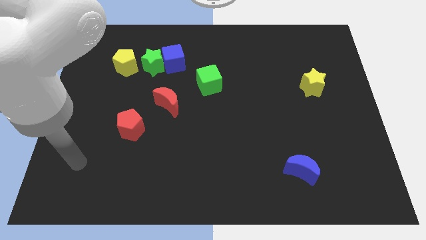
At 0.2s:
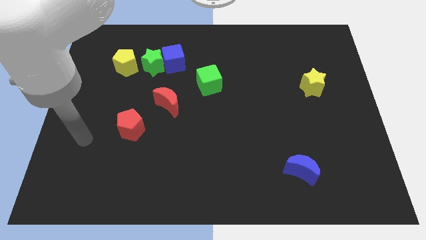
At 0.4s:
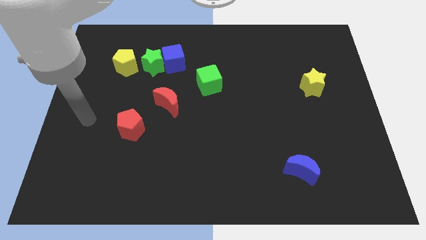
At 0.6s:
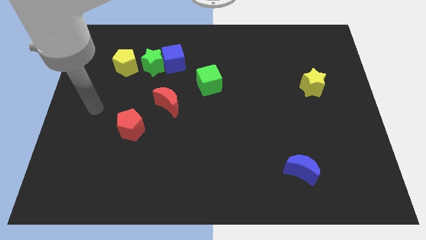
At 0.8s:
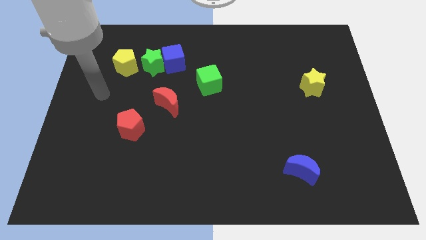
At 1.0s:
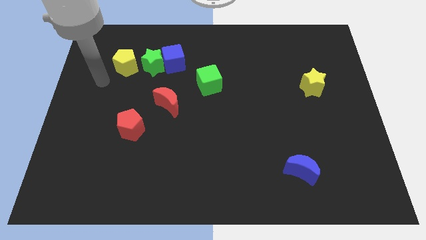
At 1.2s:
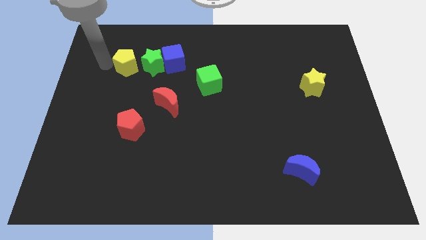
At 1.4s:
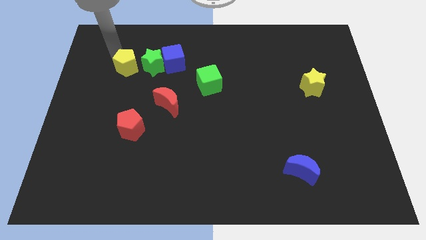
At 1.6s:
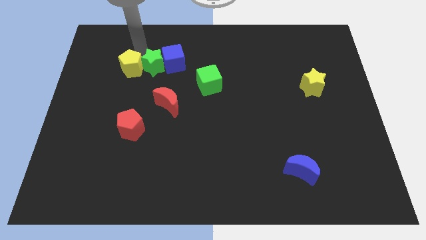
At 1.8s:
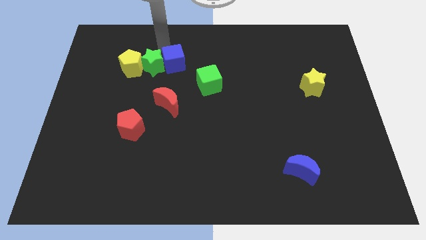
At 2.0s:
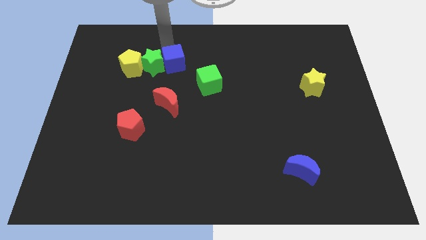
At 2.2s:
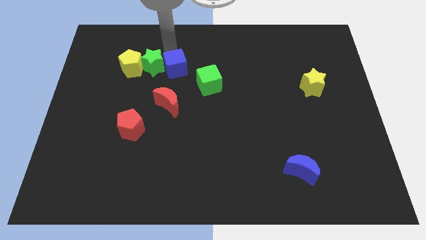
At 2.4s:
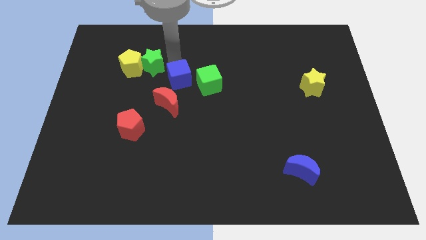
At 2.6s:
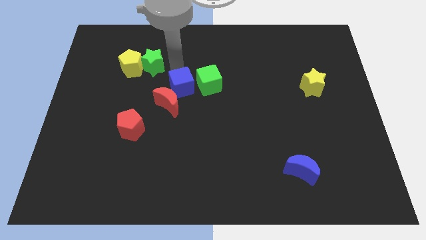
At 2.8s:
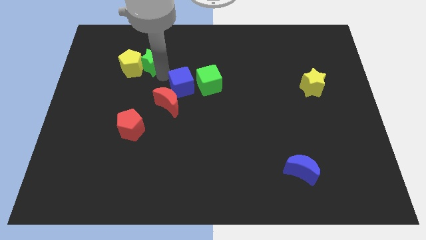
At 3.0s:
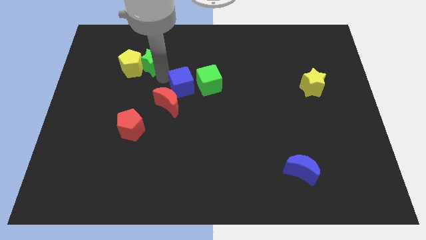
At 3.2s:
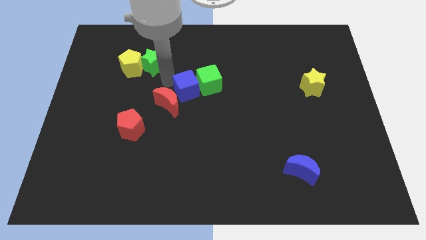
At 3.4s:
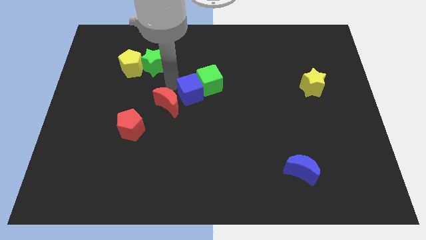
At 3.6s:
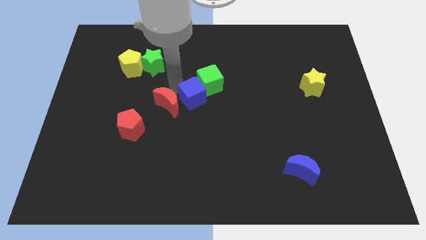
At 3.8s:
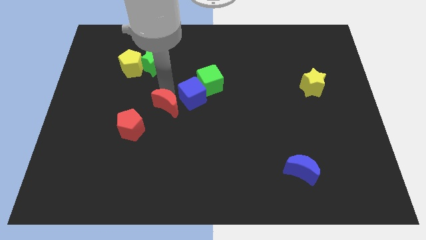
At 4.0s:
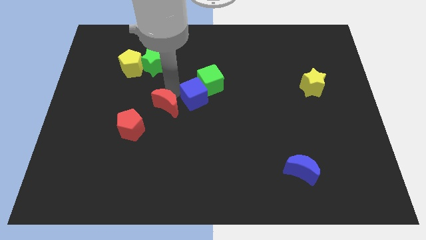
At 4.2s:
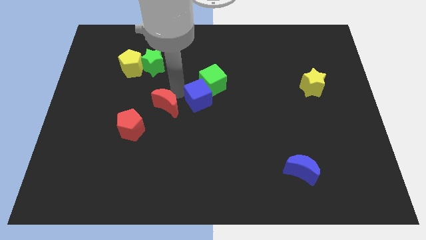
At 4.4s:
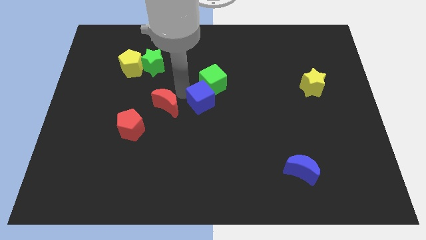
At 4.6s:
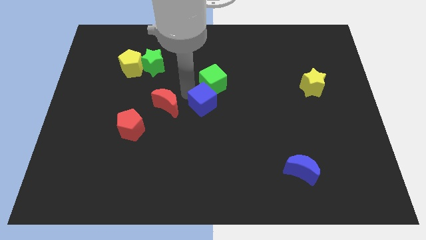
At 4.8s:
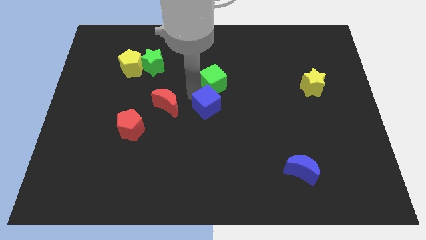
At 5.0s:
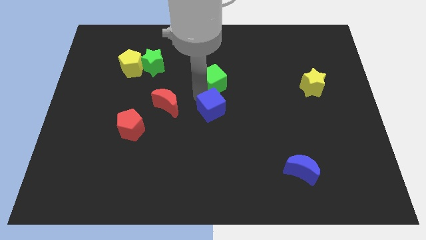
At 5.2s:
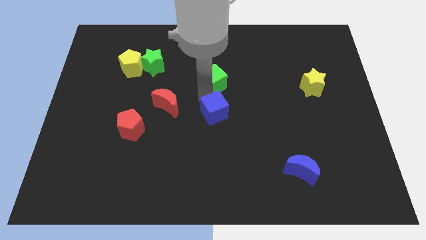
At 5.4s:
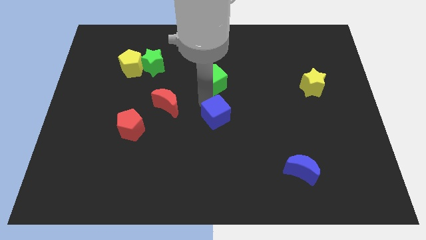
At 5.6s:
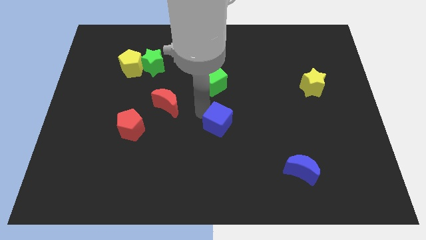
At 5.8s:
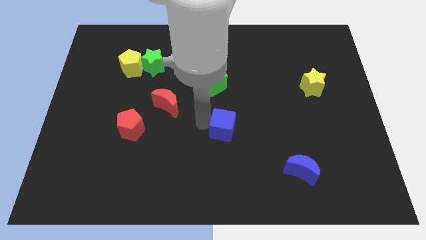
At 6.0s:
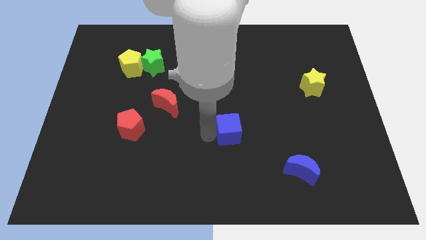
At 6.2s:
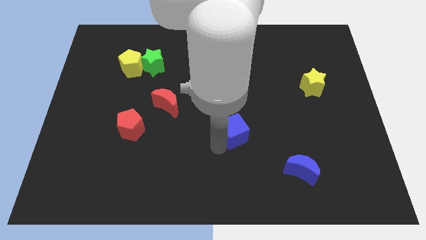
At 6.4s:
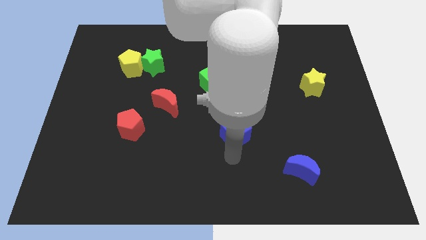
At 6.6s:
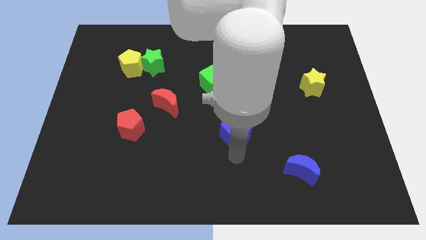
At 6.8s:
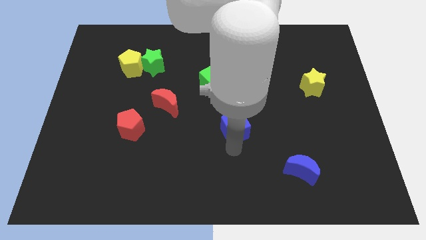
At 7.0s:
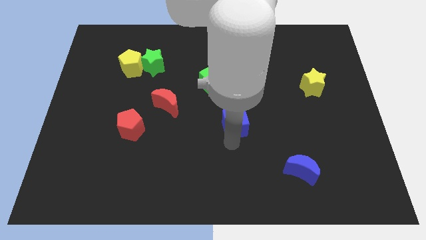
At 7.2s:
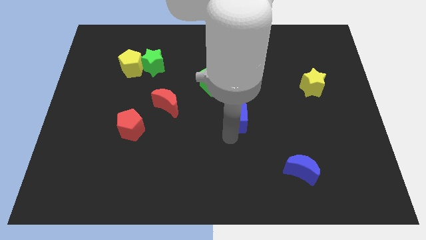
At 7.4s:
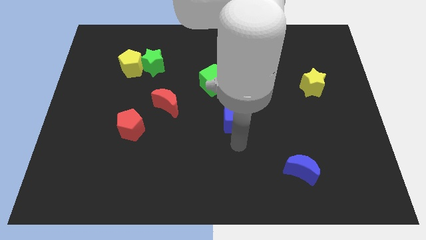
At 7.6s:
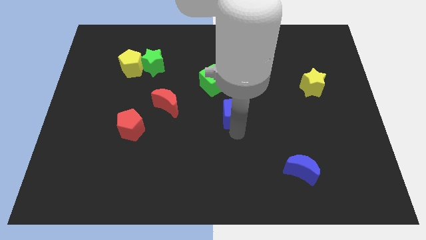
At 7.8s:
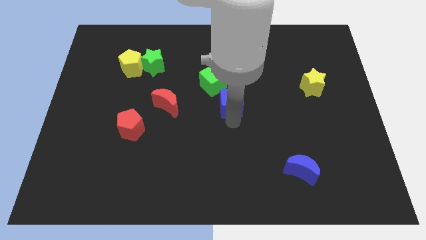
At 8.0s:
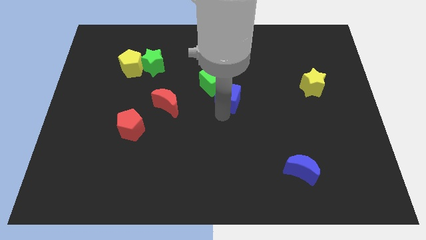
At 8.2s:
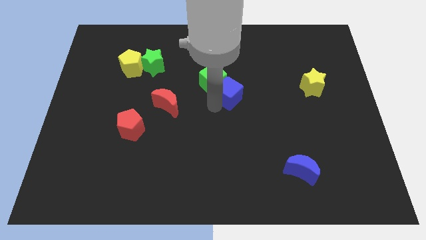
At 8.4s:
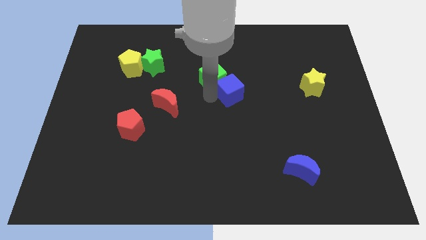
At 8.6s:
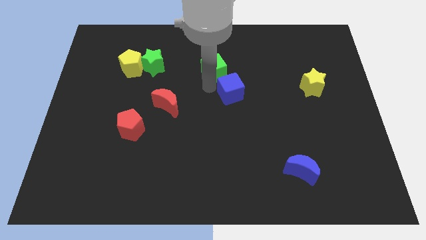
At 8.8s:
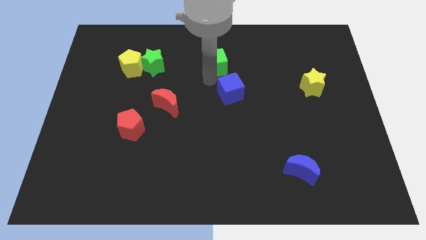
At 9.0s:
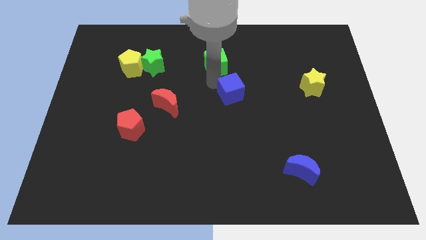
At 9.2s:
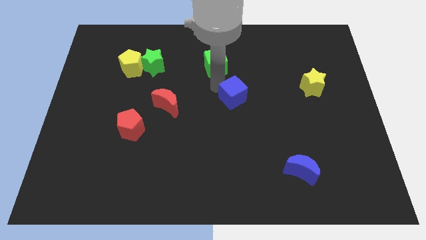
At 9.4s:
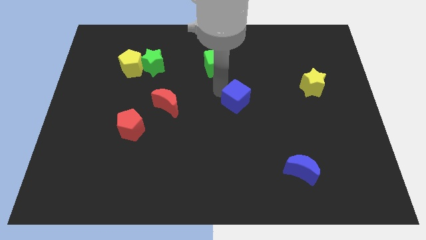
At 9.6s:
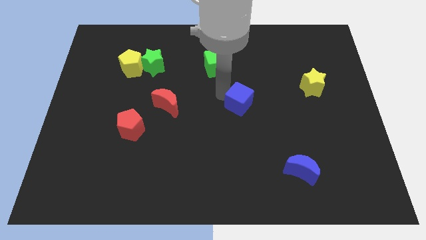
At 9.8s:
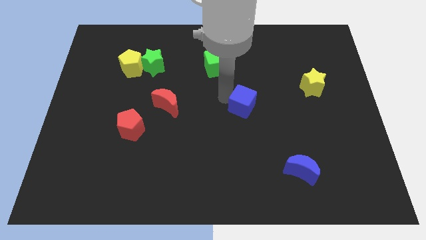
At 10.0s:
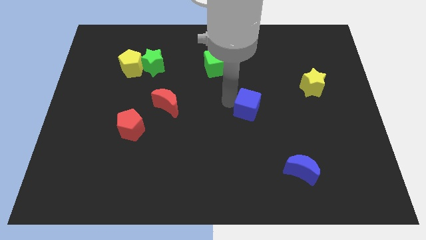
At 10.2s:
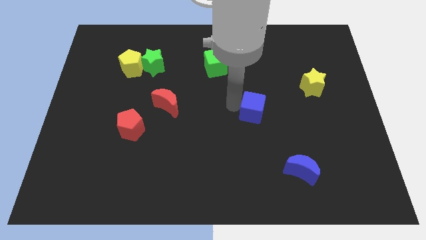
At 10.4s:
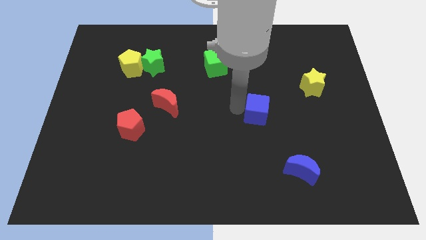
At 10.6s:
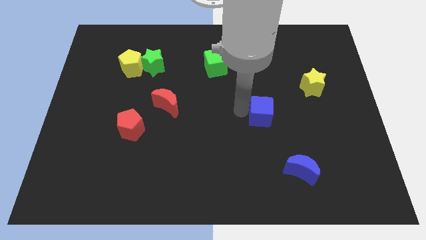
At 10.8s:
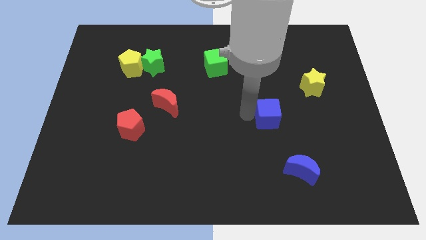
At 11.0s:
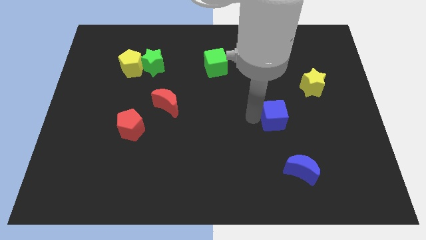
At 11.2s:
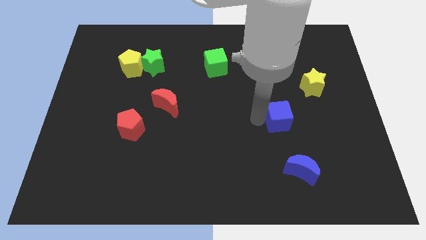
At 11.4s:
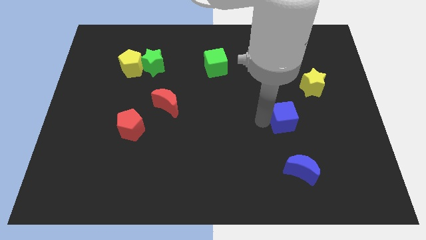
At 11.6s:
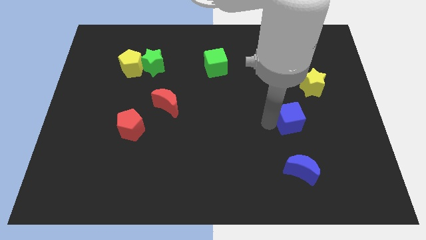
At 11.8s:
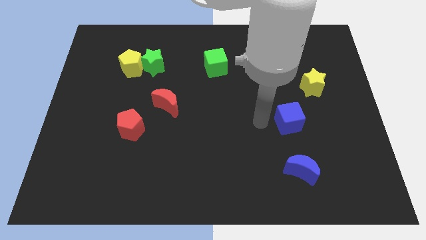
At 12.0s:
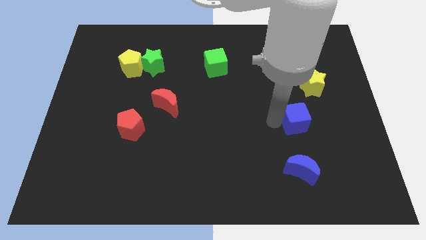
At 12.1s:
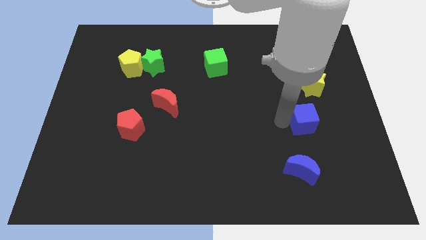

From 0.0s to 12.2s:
move the blue cube to the bottom side of the yellow star

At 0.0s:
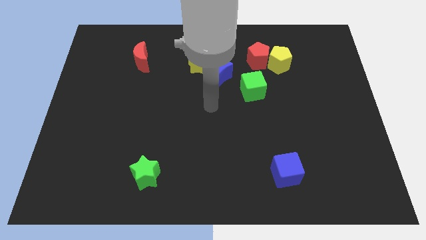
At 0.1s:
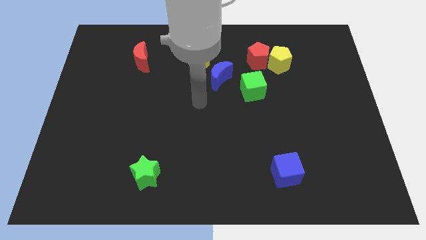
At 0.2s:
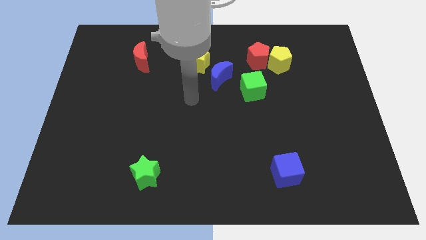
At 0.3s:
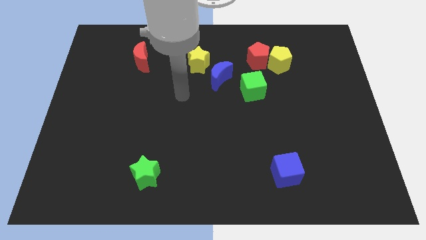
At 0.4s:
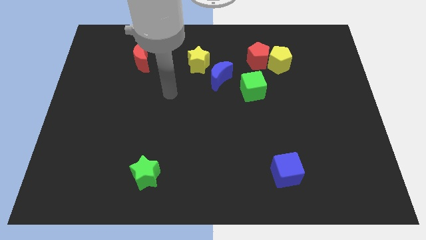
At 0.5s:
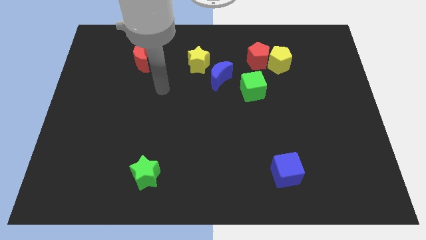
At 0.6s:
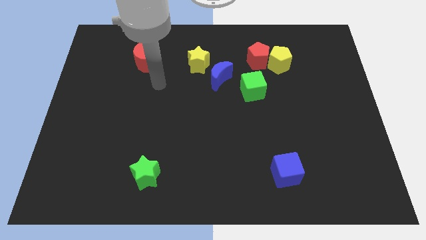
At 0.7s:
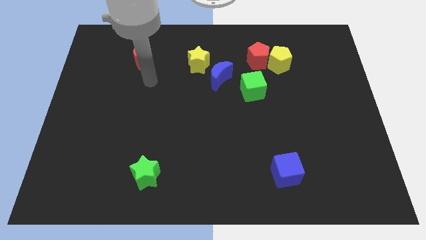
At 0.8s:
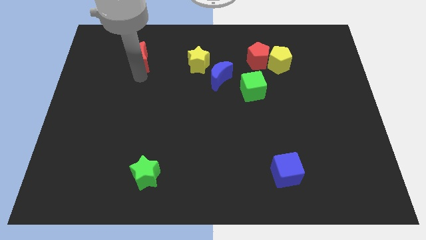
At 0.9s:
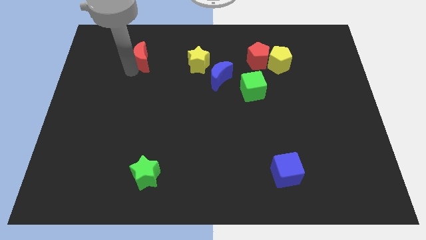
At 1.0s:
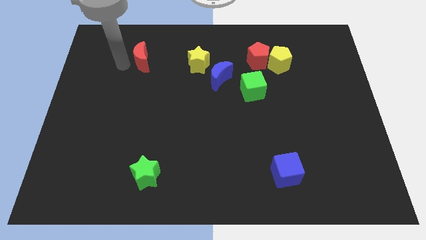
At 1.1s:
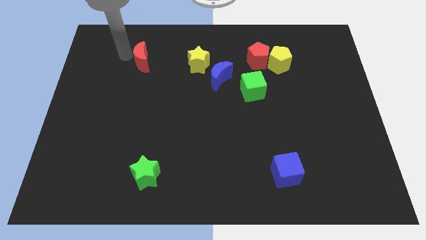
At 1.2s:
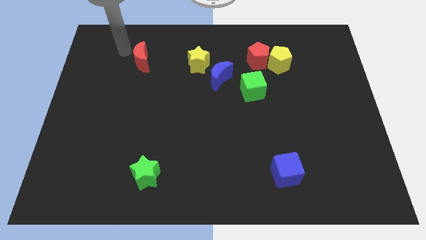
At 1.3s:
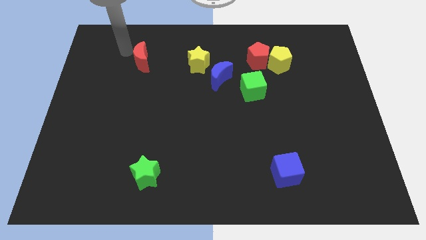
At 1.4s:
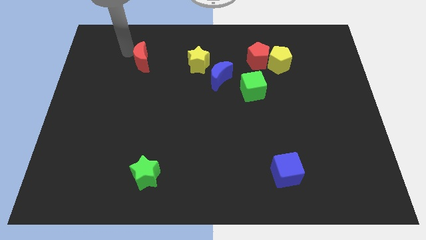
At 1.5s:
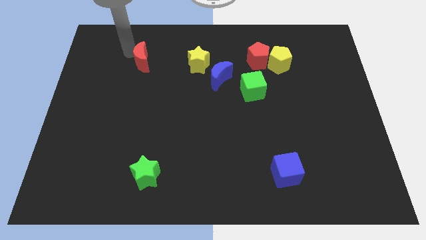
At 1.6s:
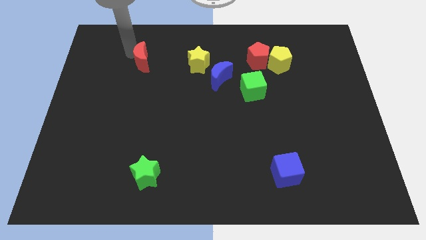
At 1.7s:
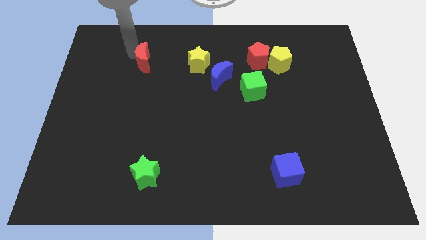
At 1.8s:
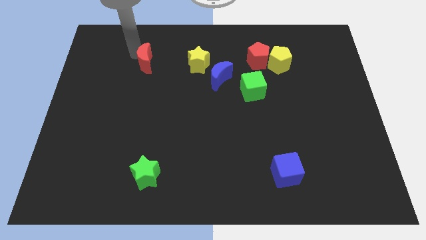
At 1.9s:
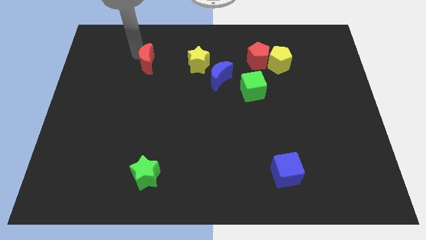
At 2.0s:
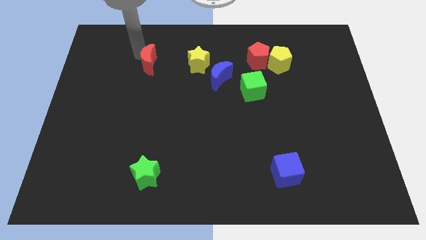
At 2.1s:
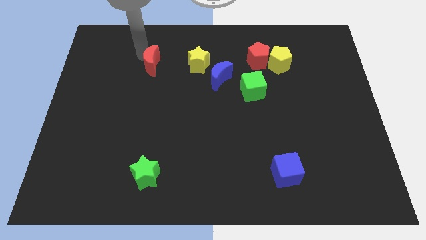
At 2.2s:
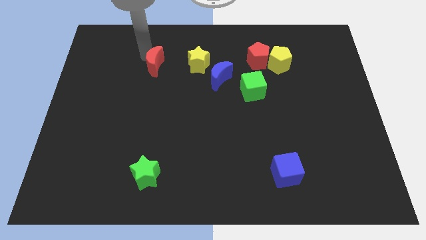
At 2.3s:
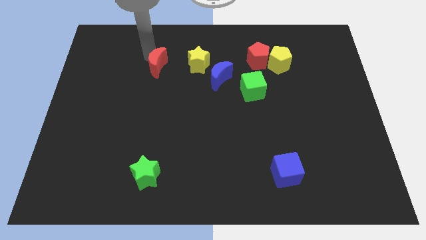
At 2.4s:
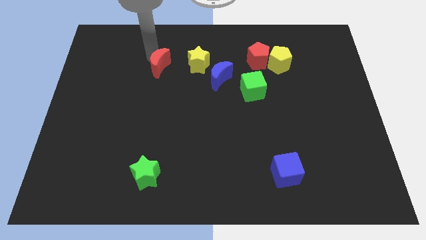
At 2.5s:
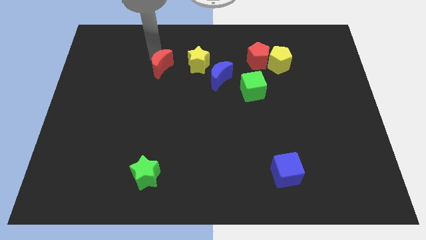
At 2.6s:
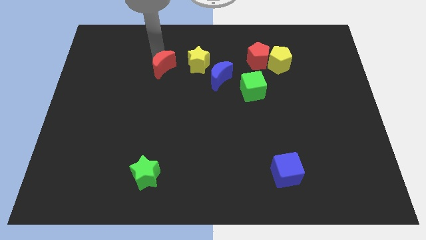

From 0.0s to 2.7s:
push the red moon to the left side of the blue moon
